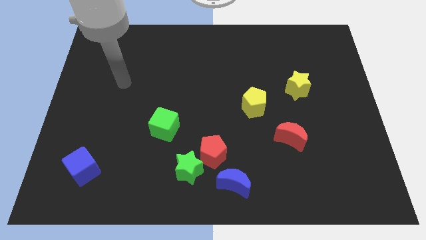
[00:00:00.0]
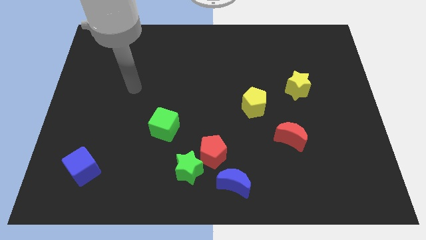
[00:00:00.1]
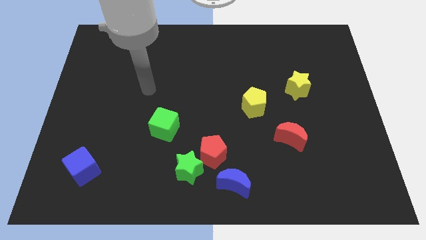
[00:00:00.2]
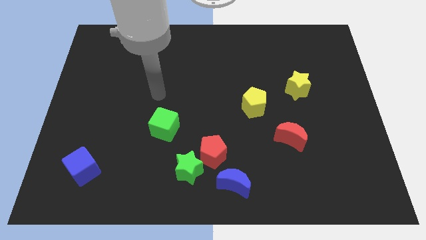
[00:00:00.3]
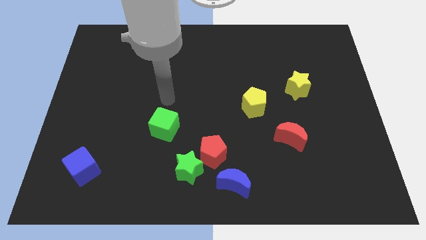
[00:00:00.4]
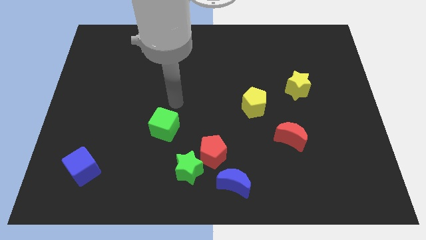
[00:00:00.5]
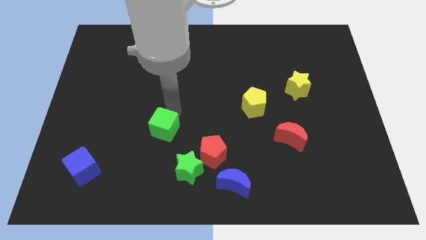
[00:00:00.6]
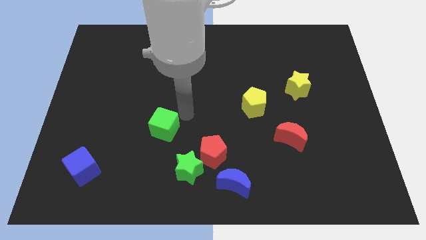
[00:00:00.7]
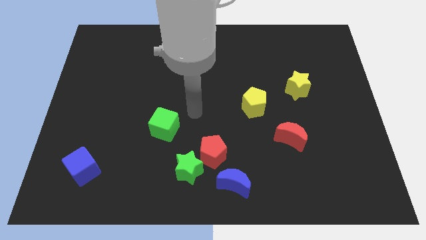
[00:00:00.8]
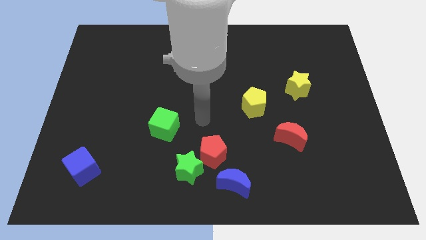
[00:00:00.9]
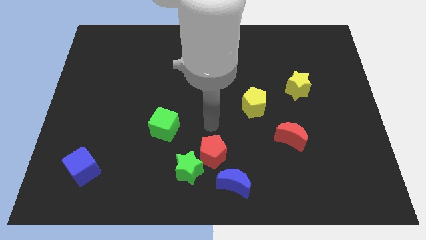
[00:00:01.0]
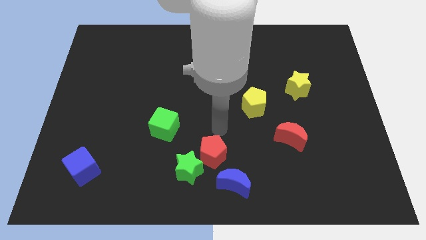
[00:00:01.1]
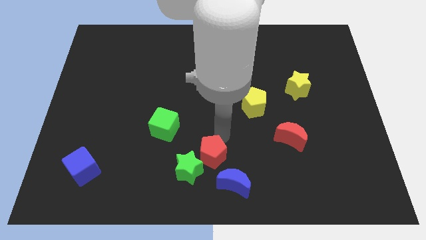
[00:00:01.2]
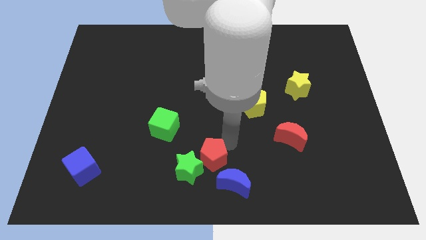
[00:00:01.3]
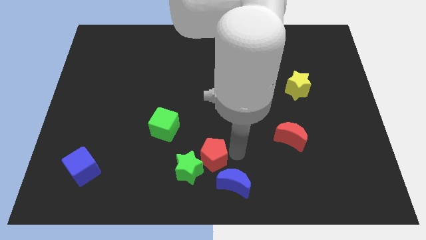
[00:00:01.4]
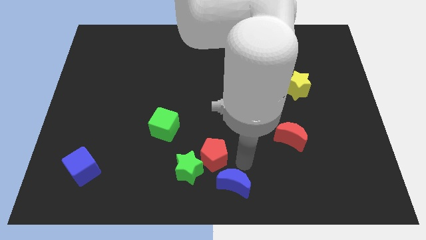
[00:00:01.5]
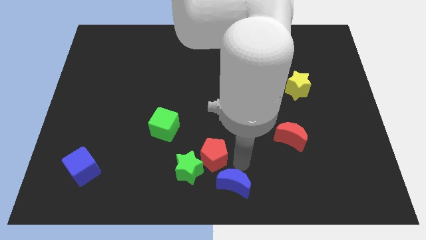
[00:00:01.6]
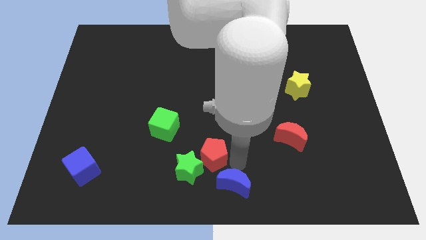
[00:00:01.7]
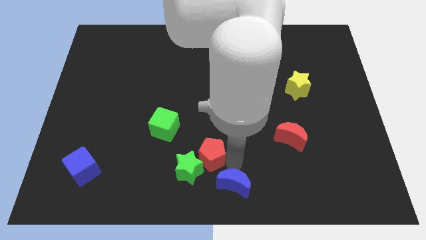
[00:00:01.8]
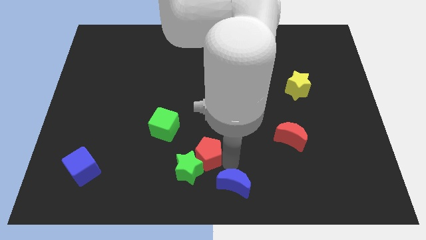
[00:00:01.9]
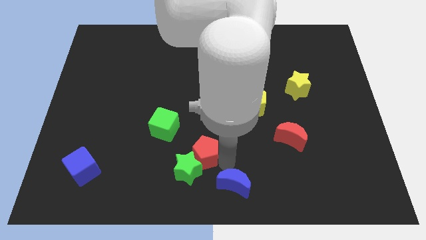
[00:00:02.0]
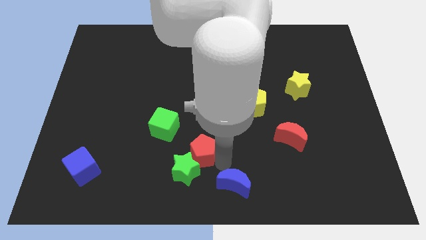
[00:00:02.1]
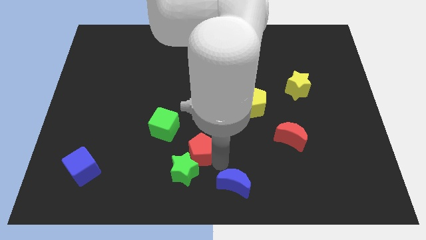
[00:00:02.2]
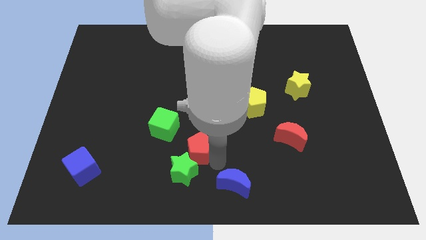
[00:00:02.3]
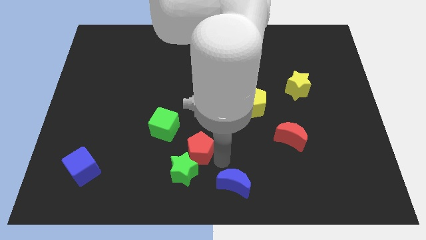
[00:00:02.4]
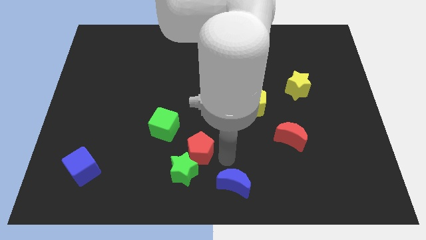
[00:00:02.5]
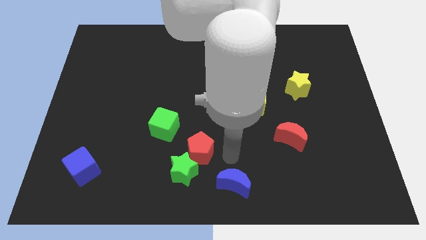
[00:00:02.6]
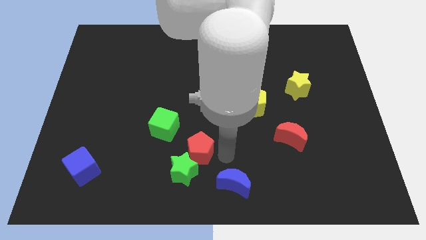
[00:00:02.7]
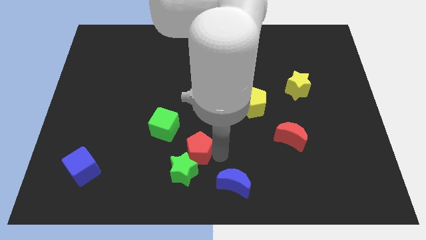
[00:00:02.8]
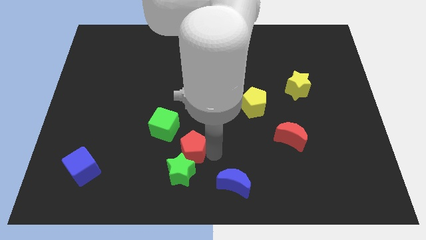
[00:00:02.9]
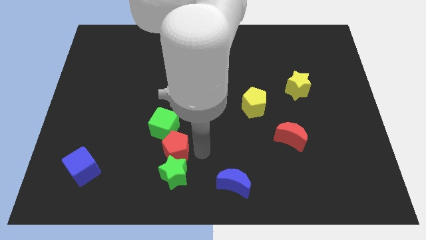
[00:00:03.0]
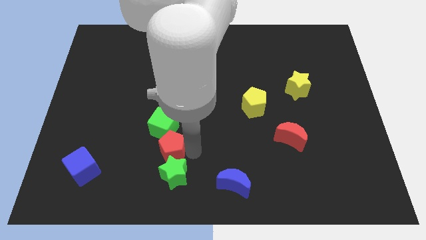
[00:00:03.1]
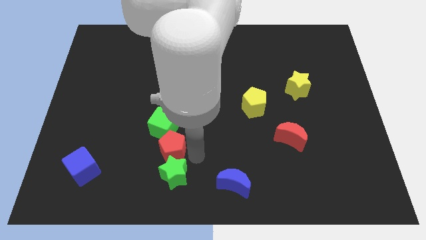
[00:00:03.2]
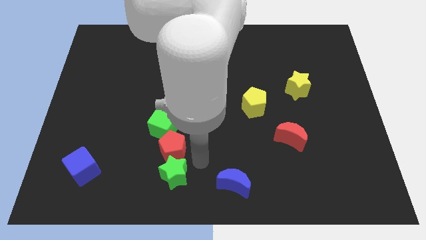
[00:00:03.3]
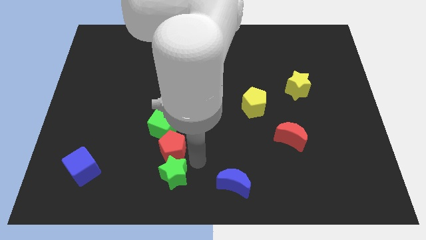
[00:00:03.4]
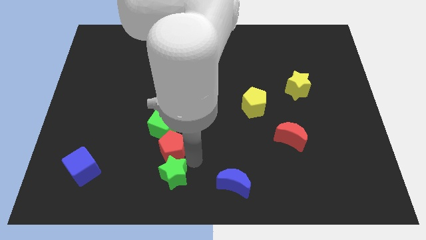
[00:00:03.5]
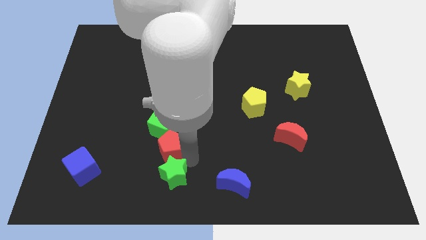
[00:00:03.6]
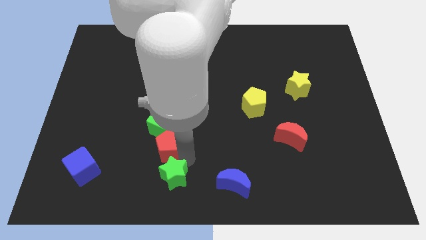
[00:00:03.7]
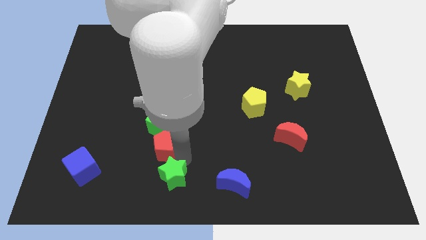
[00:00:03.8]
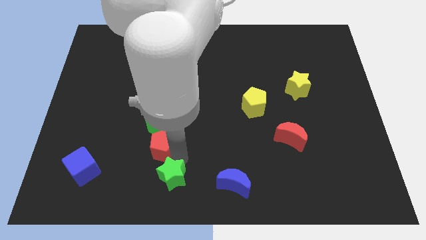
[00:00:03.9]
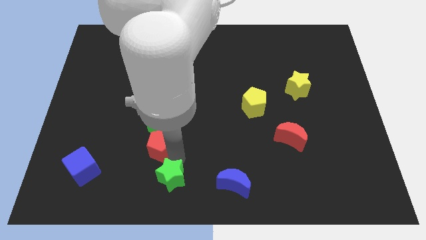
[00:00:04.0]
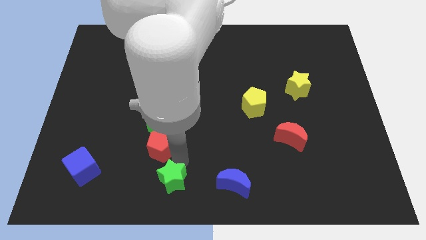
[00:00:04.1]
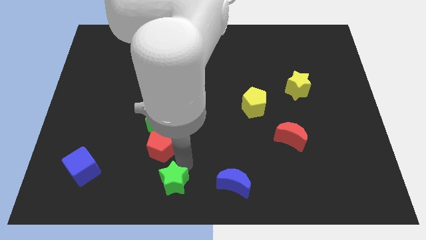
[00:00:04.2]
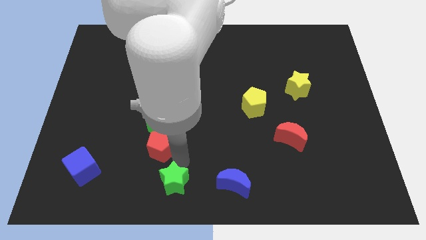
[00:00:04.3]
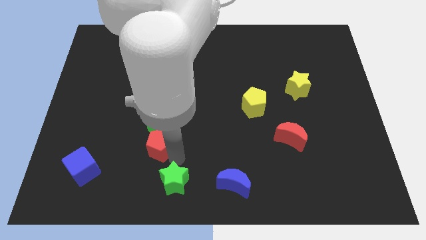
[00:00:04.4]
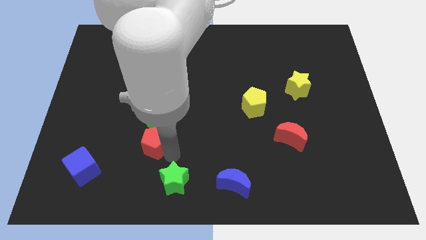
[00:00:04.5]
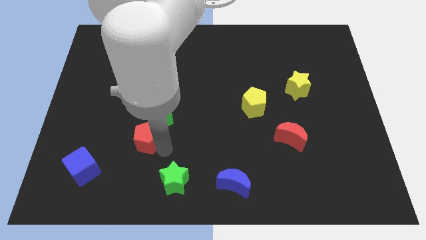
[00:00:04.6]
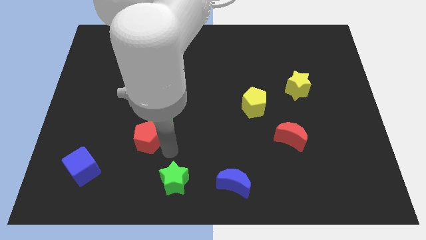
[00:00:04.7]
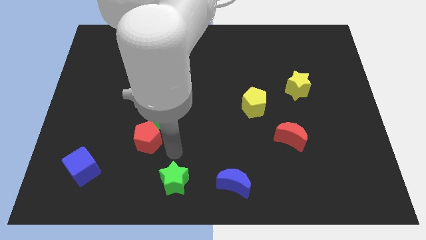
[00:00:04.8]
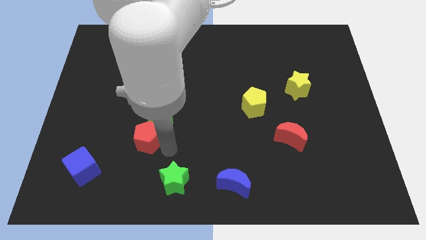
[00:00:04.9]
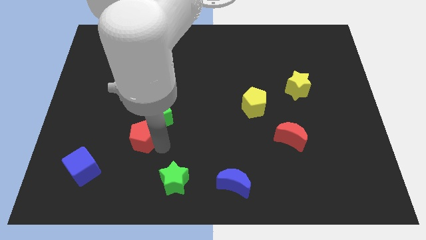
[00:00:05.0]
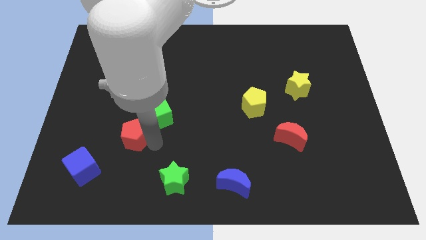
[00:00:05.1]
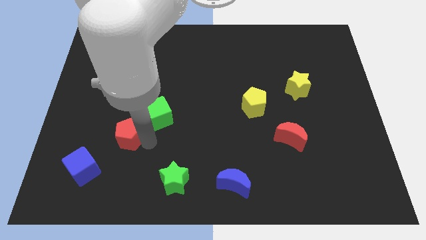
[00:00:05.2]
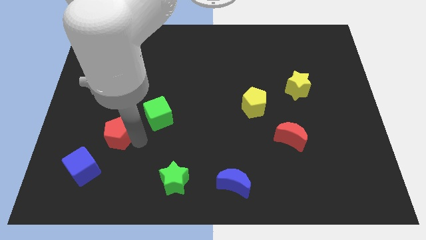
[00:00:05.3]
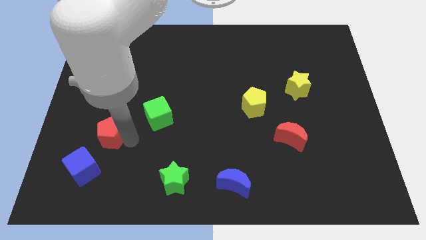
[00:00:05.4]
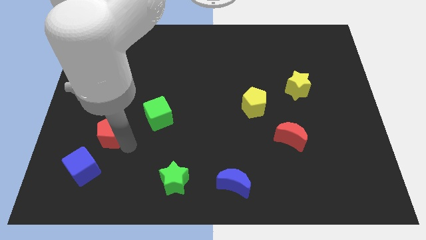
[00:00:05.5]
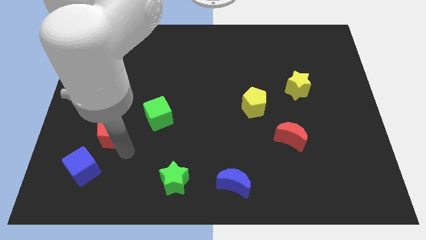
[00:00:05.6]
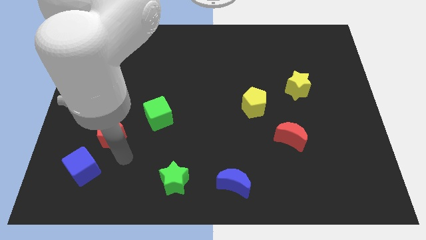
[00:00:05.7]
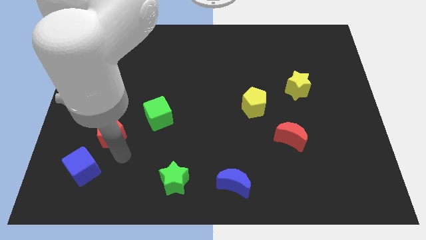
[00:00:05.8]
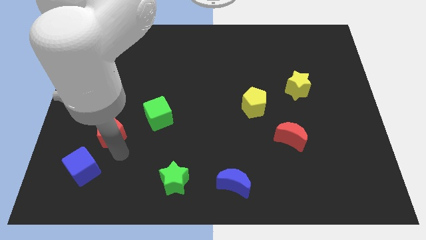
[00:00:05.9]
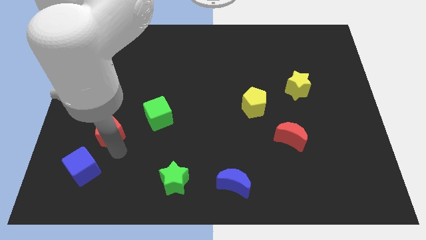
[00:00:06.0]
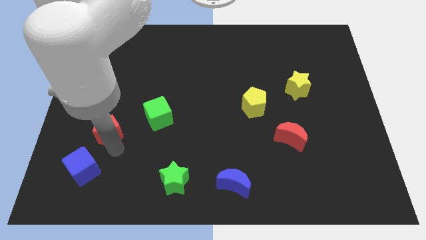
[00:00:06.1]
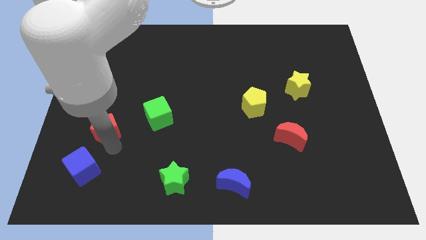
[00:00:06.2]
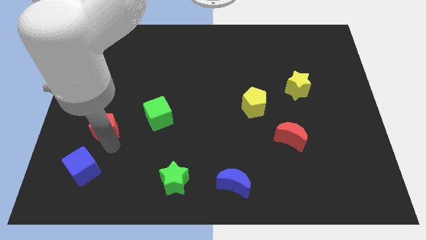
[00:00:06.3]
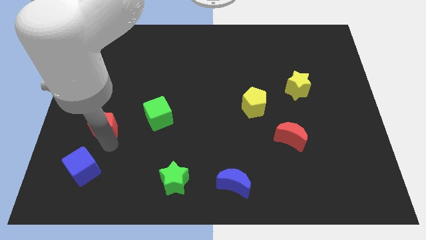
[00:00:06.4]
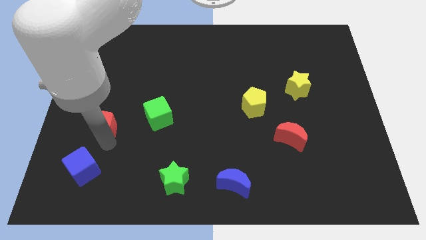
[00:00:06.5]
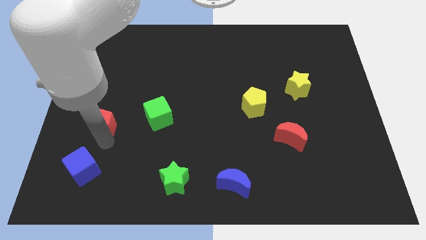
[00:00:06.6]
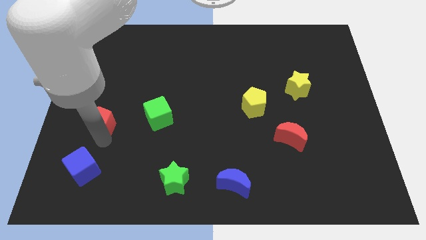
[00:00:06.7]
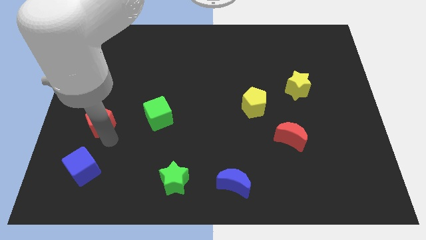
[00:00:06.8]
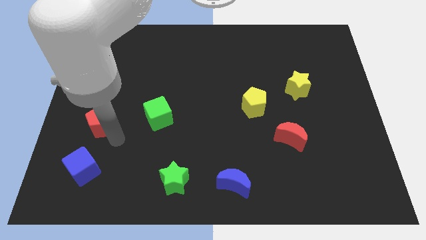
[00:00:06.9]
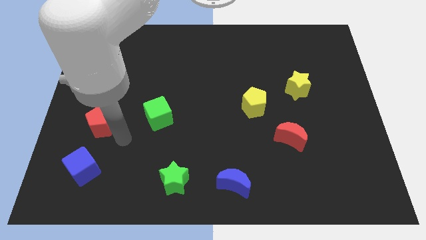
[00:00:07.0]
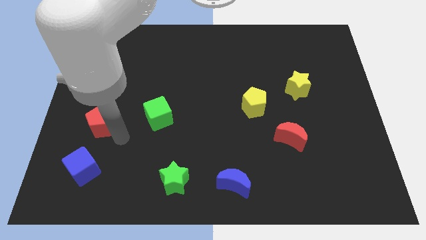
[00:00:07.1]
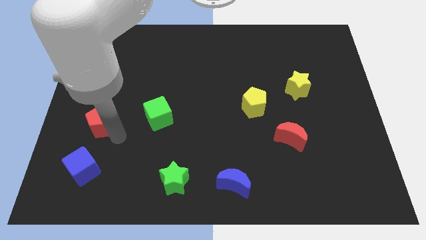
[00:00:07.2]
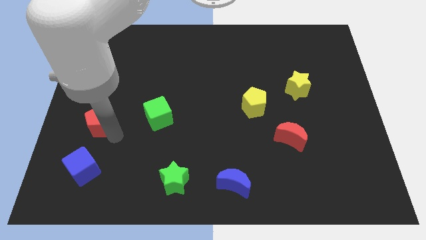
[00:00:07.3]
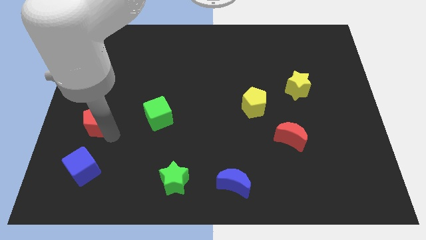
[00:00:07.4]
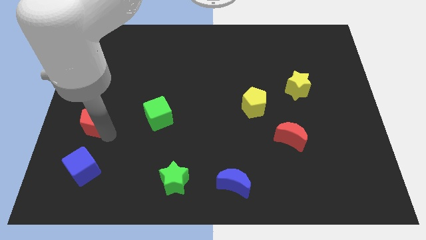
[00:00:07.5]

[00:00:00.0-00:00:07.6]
put the red pentagon to the left side
